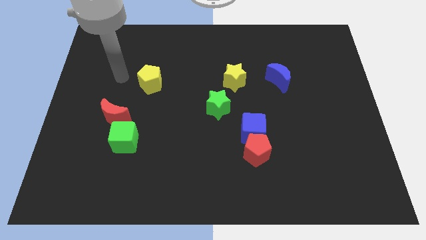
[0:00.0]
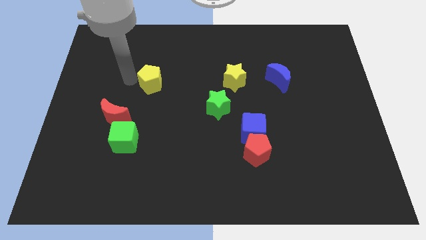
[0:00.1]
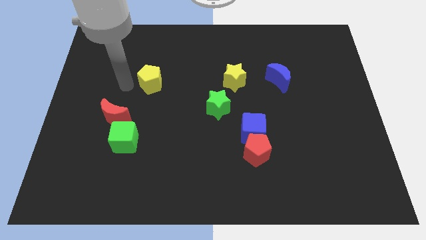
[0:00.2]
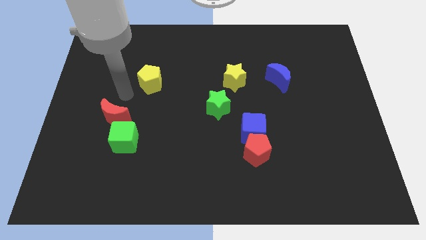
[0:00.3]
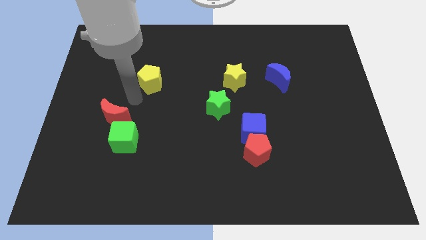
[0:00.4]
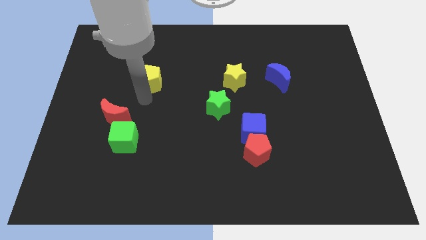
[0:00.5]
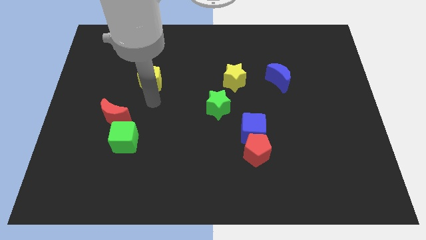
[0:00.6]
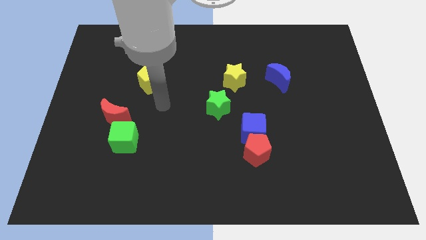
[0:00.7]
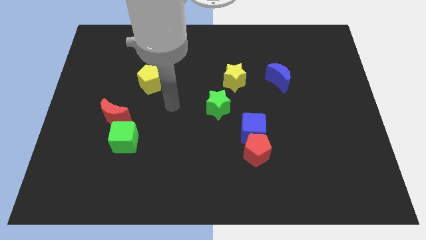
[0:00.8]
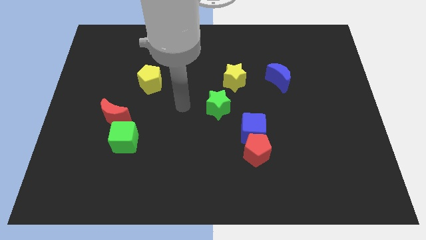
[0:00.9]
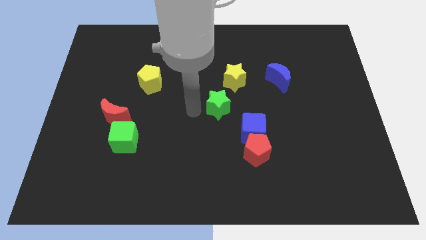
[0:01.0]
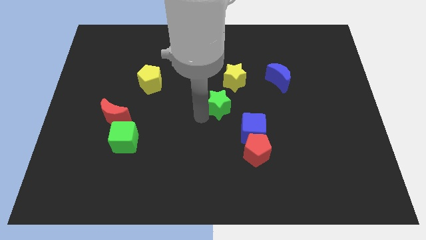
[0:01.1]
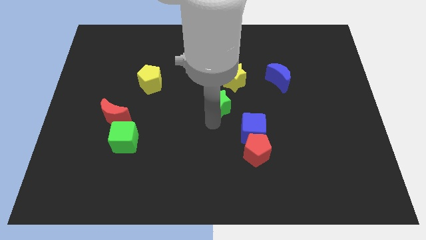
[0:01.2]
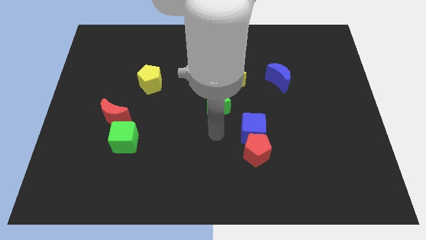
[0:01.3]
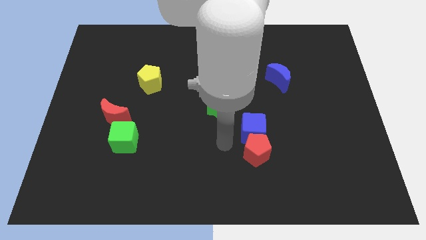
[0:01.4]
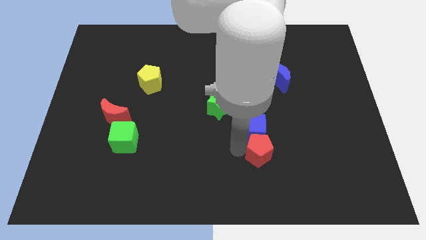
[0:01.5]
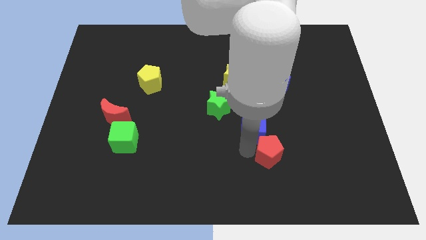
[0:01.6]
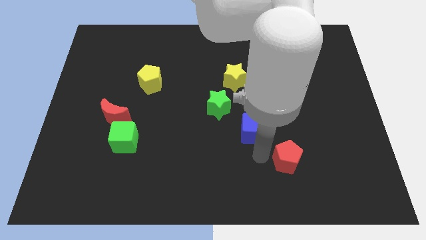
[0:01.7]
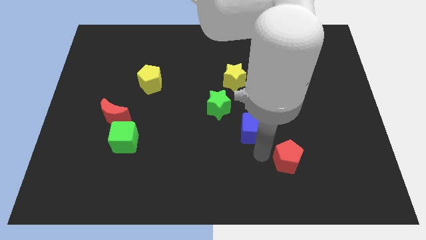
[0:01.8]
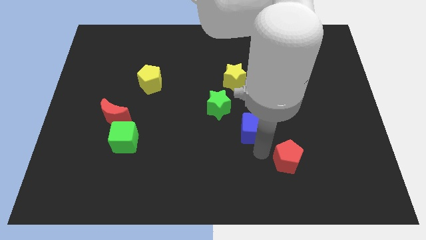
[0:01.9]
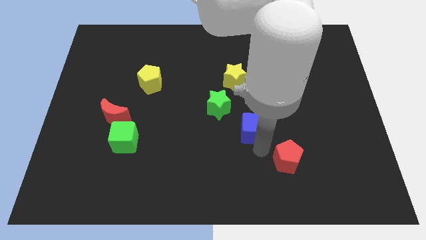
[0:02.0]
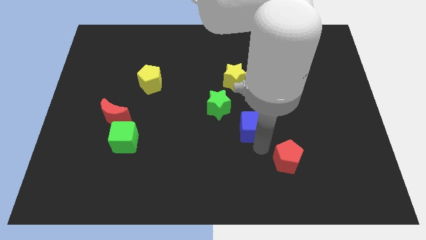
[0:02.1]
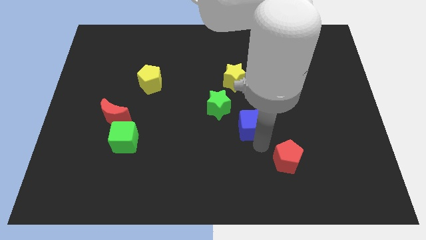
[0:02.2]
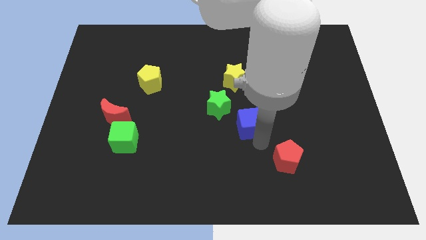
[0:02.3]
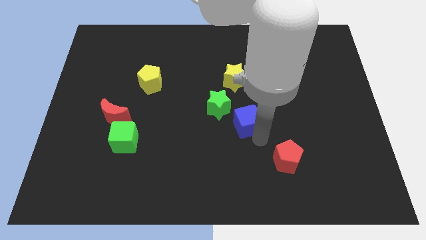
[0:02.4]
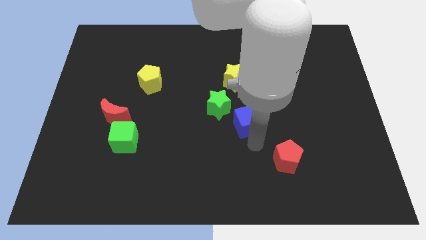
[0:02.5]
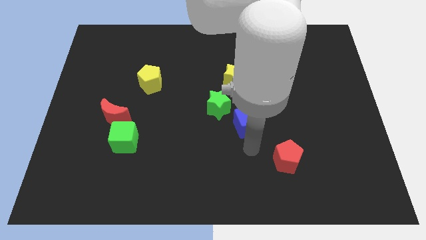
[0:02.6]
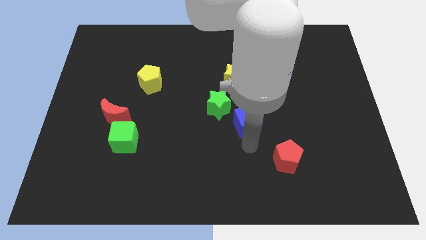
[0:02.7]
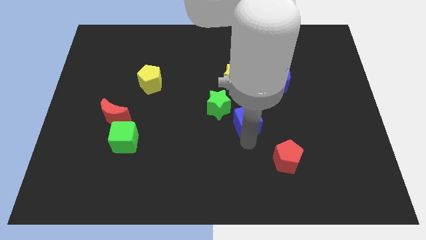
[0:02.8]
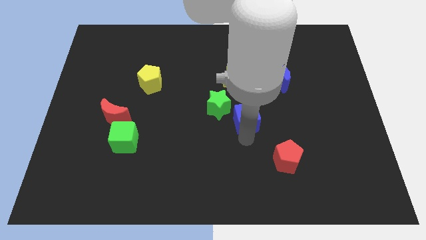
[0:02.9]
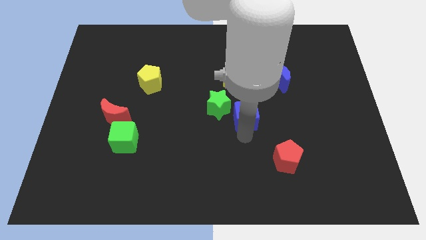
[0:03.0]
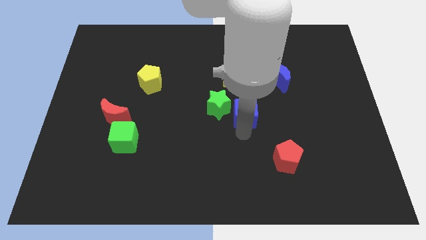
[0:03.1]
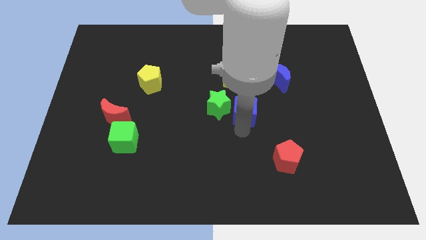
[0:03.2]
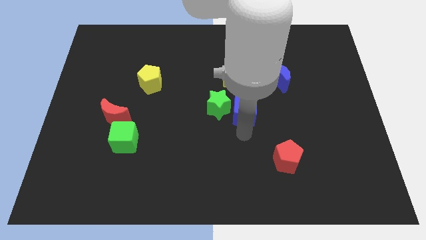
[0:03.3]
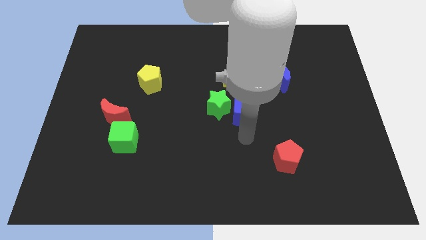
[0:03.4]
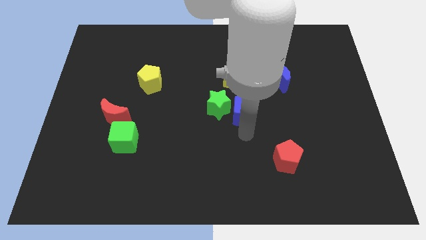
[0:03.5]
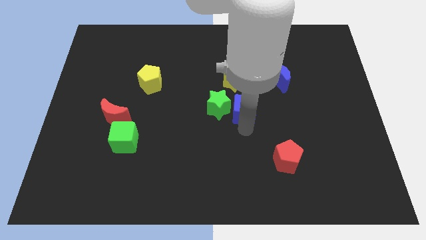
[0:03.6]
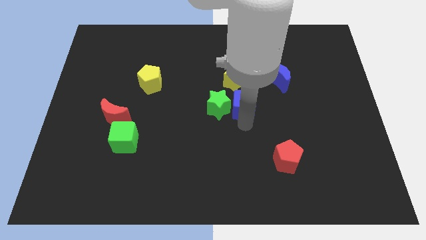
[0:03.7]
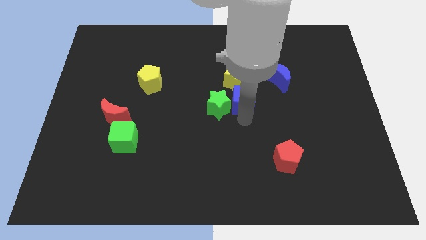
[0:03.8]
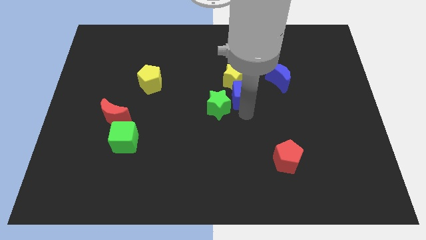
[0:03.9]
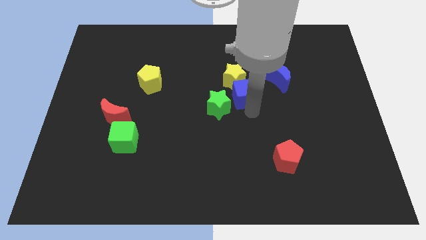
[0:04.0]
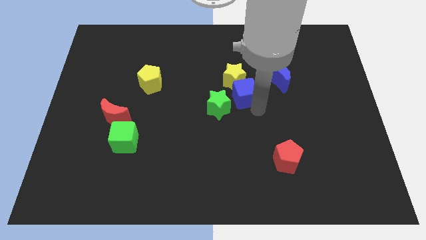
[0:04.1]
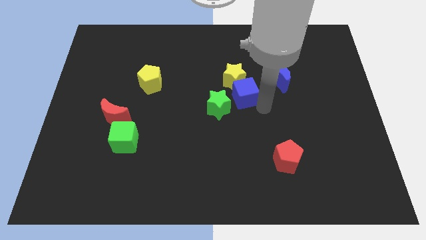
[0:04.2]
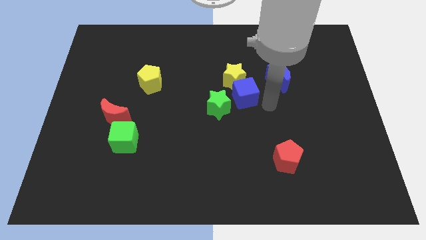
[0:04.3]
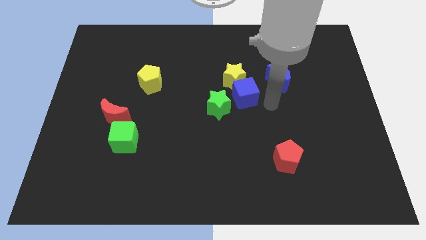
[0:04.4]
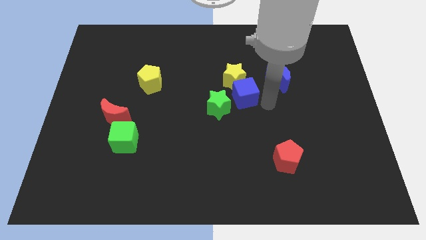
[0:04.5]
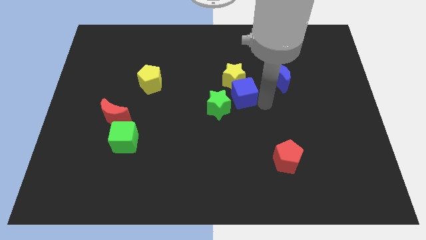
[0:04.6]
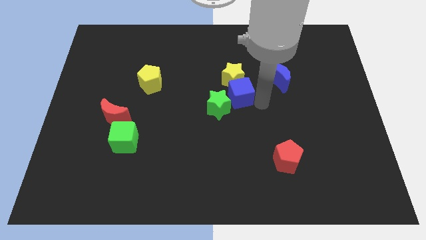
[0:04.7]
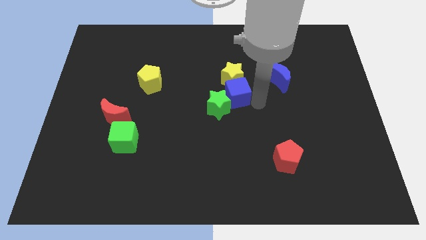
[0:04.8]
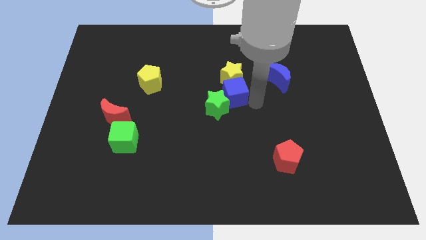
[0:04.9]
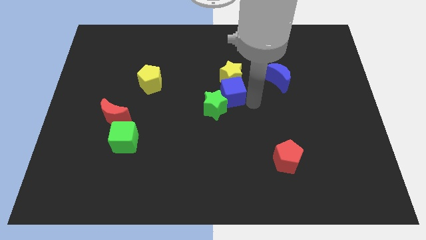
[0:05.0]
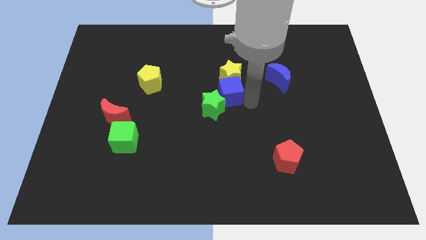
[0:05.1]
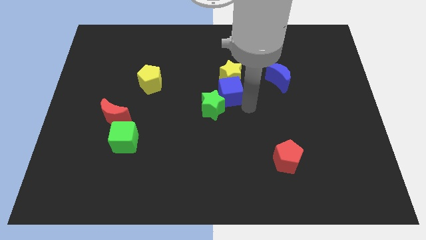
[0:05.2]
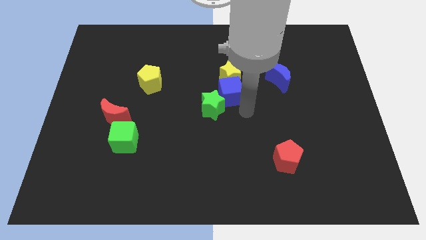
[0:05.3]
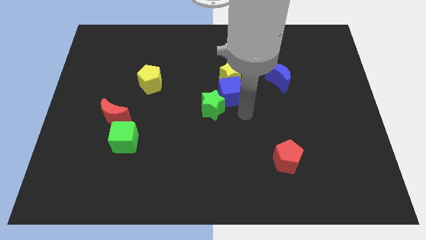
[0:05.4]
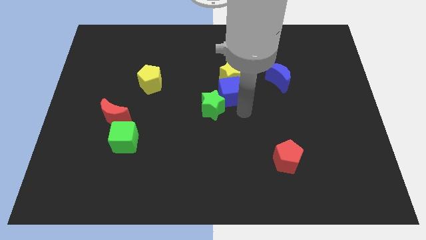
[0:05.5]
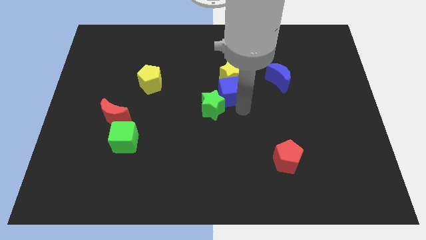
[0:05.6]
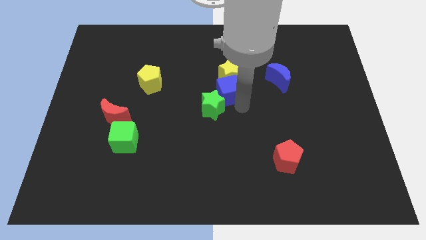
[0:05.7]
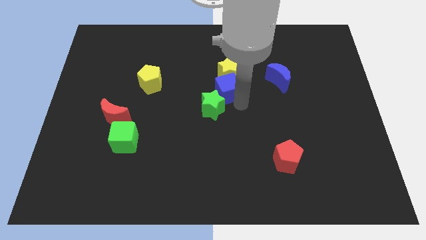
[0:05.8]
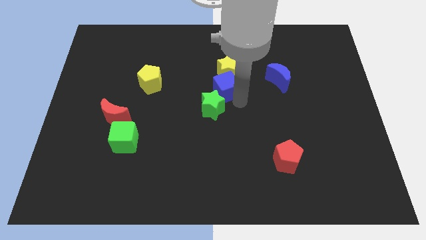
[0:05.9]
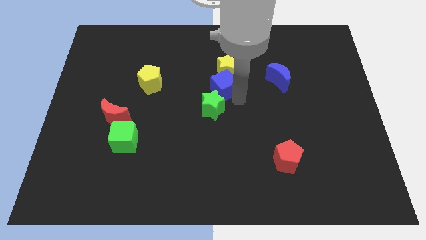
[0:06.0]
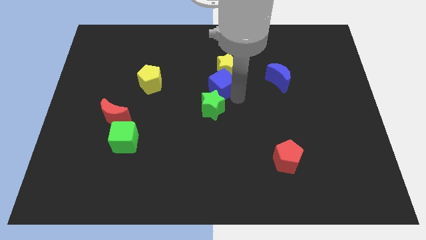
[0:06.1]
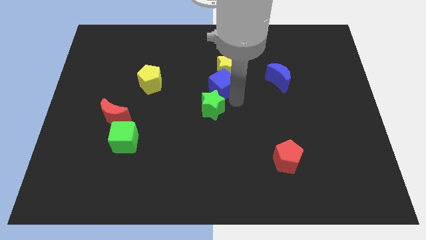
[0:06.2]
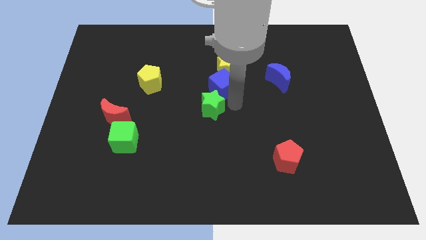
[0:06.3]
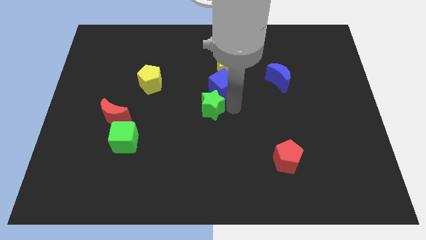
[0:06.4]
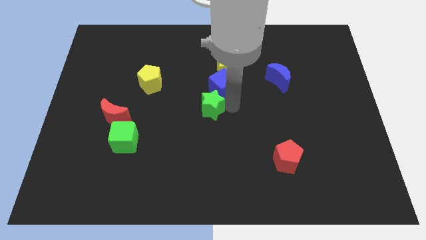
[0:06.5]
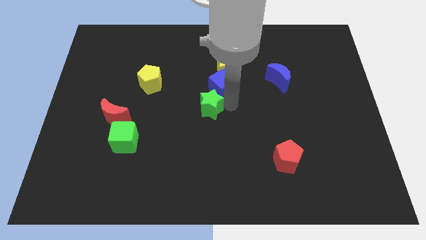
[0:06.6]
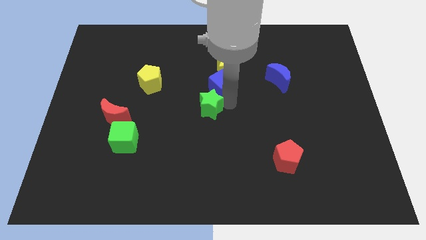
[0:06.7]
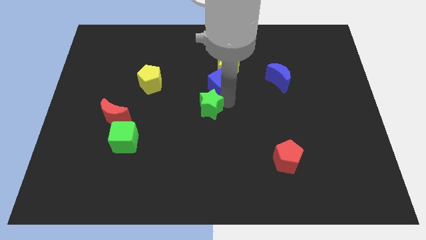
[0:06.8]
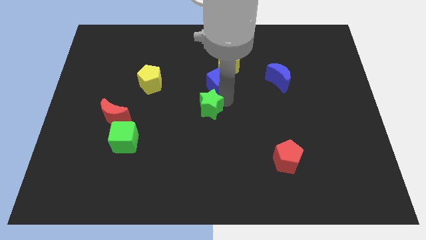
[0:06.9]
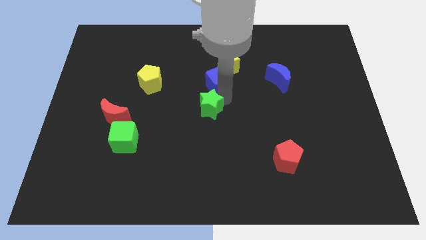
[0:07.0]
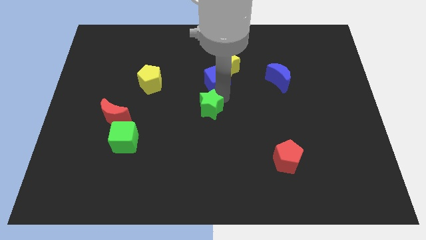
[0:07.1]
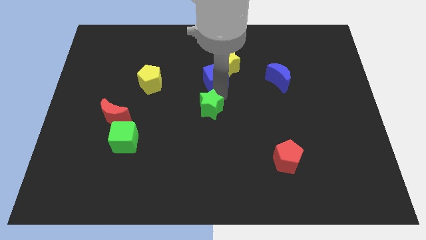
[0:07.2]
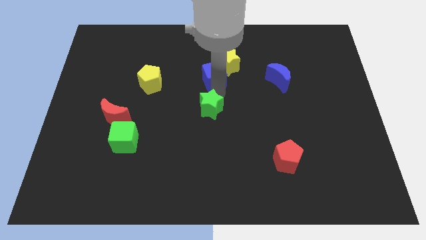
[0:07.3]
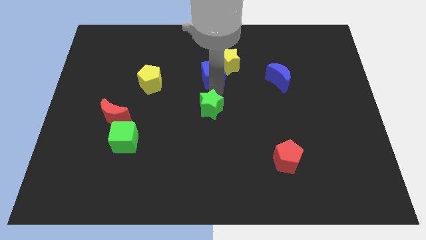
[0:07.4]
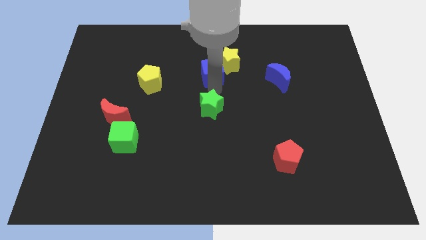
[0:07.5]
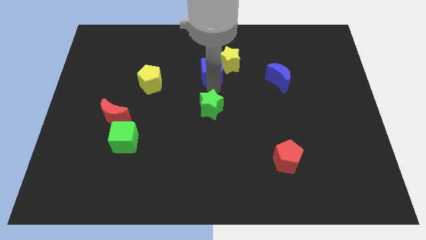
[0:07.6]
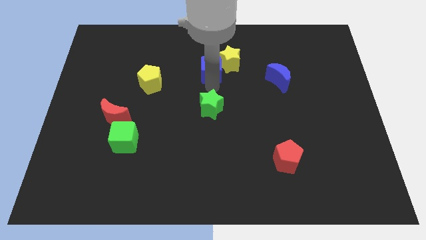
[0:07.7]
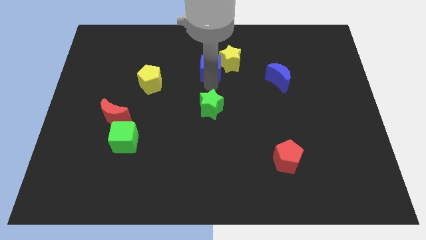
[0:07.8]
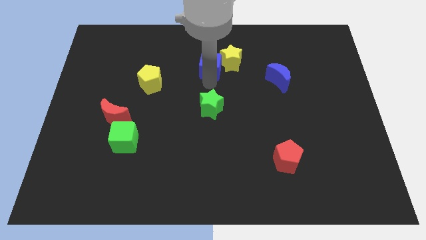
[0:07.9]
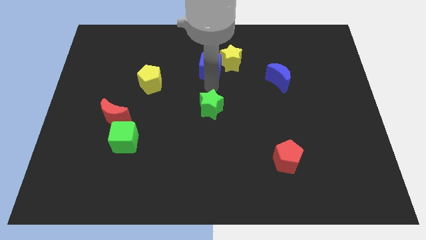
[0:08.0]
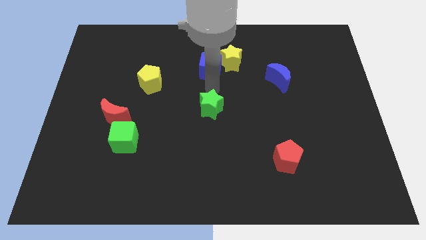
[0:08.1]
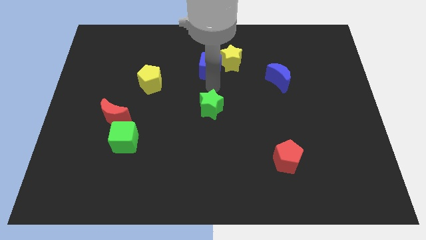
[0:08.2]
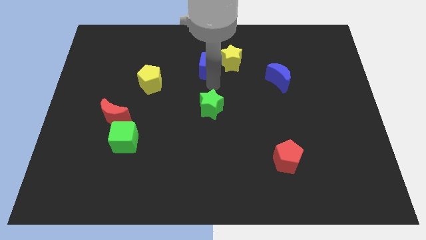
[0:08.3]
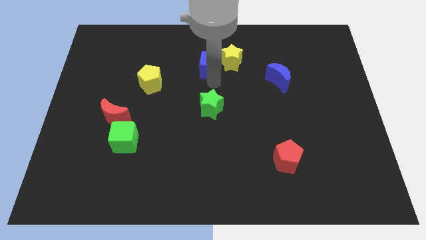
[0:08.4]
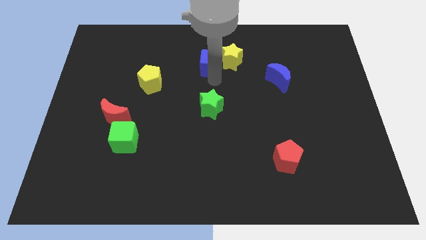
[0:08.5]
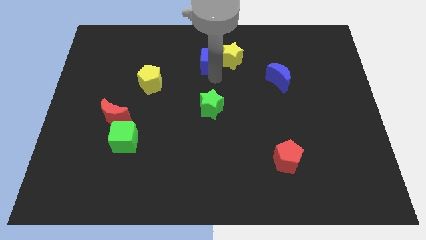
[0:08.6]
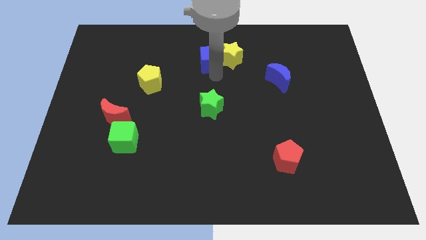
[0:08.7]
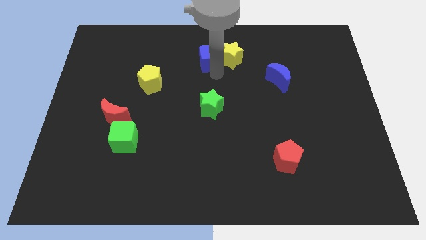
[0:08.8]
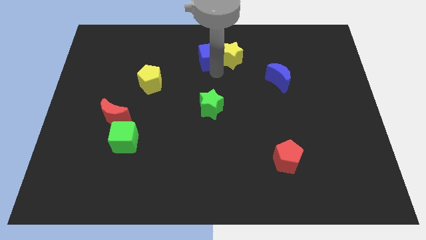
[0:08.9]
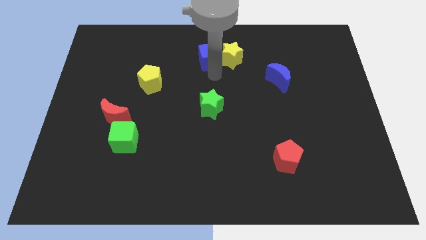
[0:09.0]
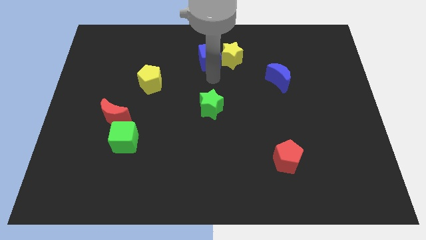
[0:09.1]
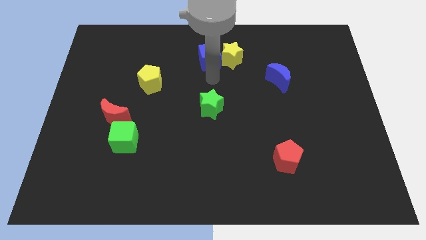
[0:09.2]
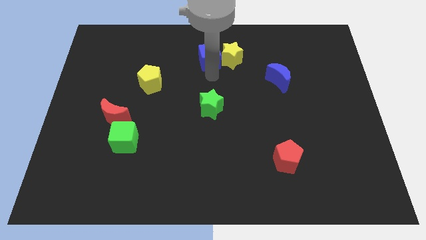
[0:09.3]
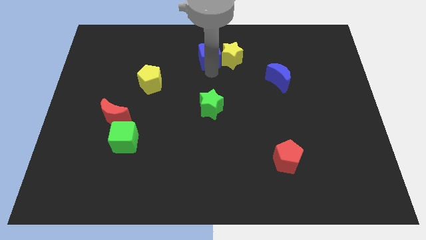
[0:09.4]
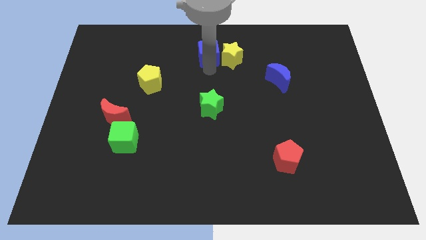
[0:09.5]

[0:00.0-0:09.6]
push the blue cube to the top side
